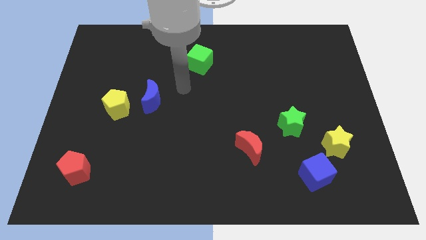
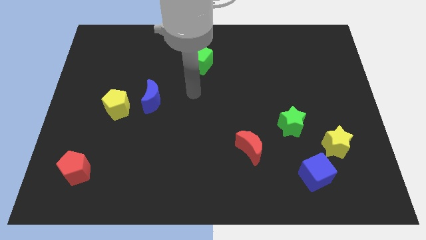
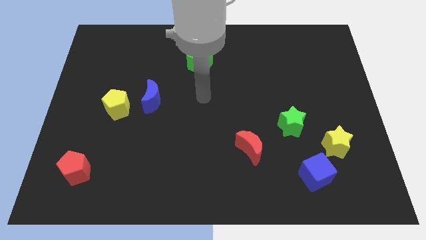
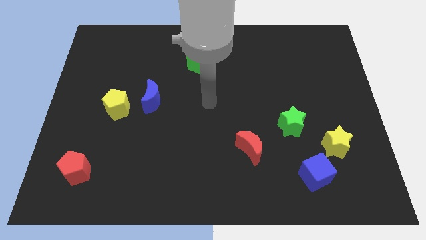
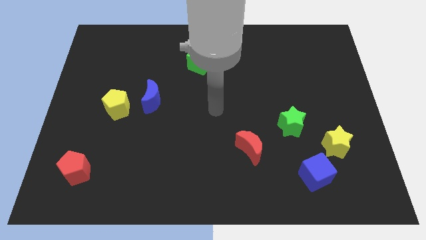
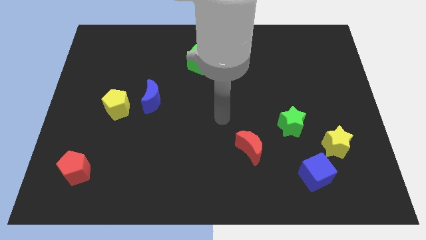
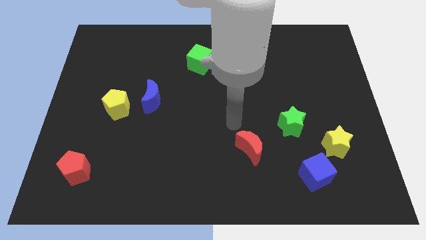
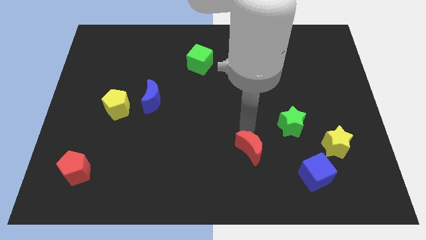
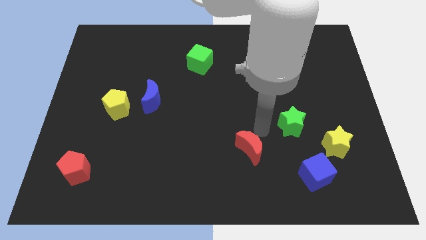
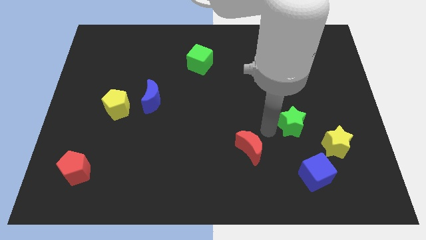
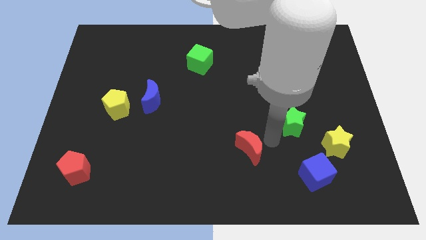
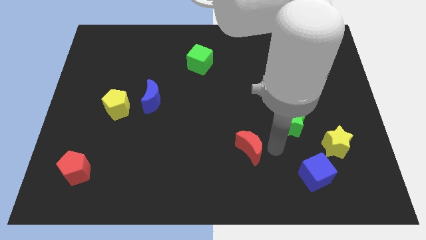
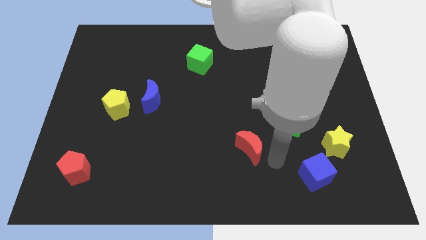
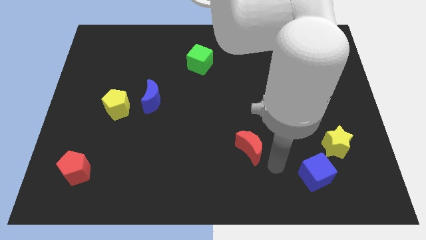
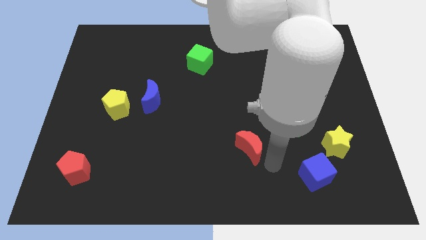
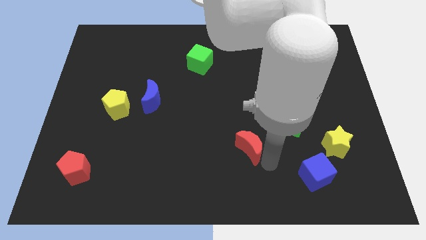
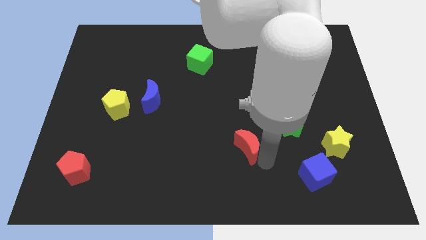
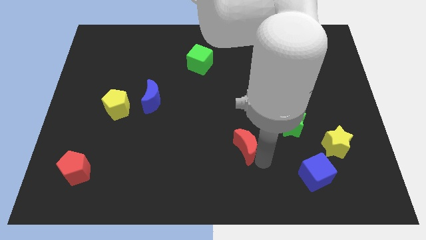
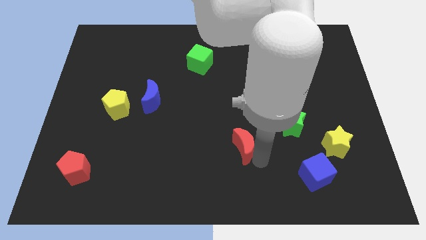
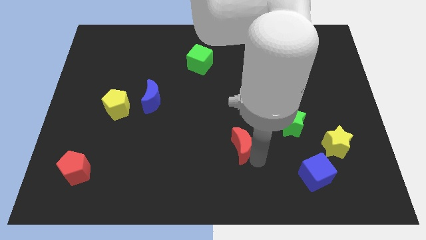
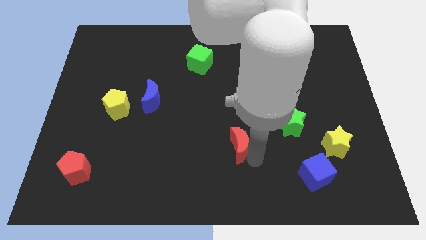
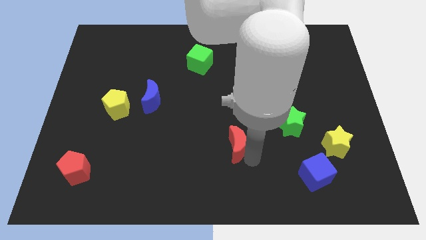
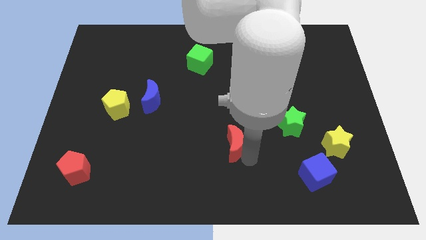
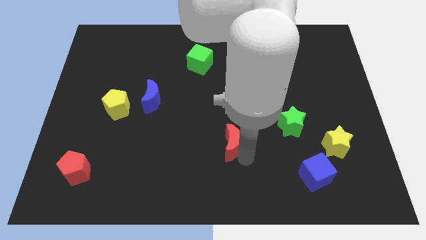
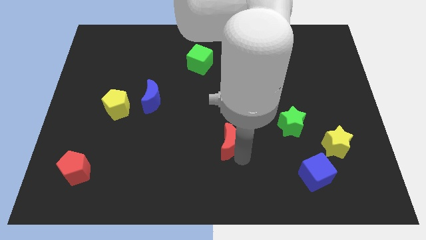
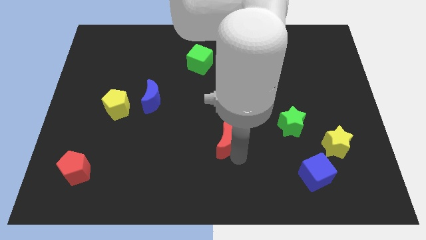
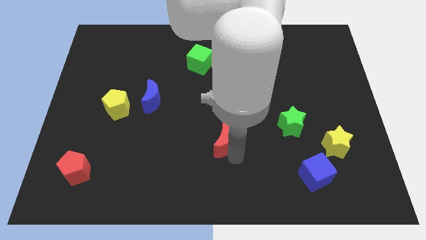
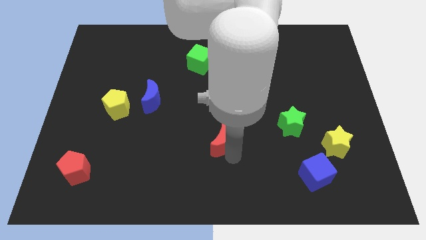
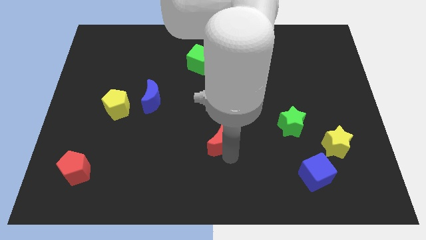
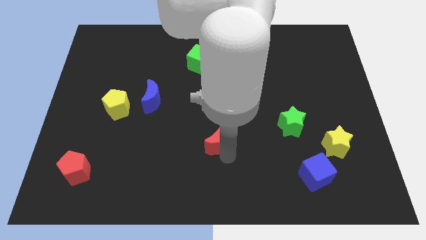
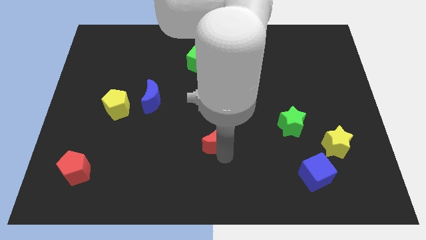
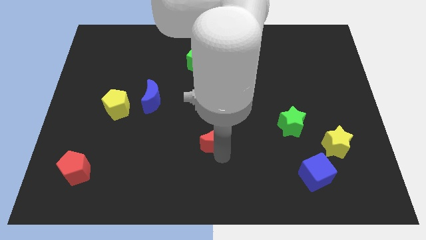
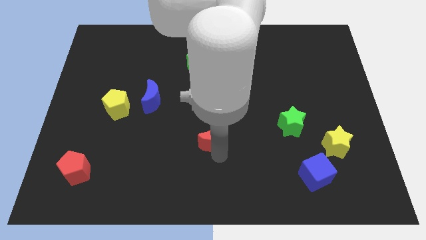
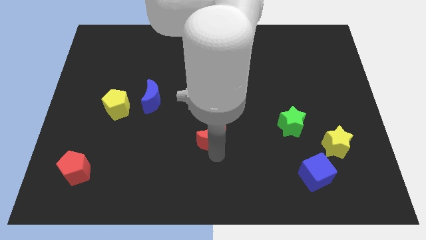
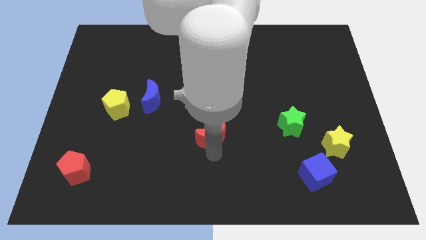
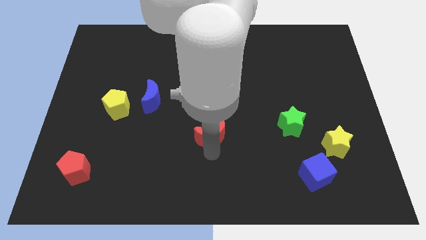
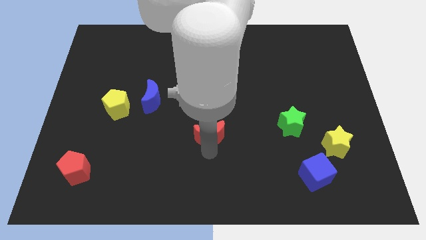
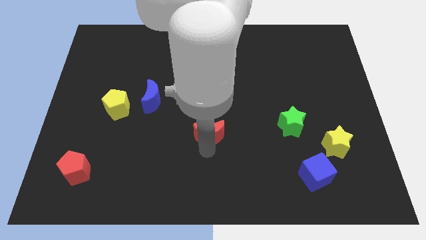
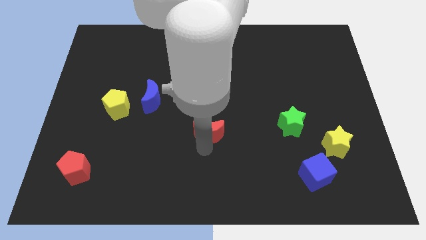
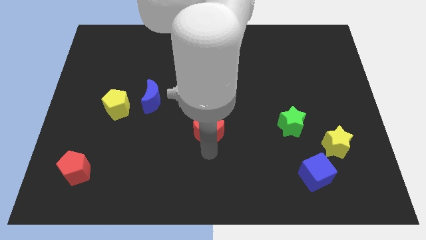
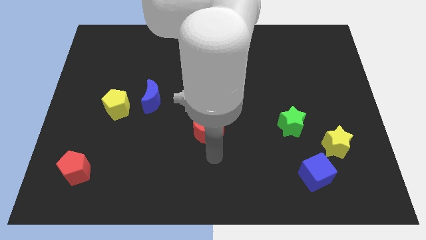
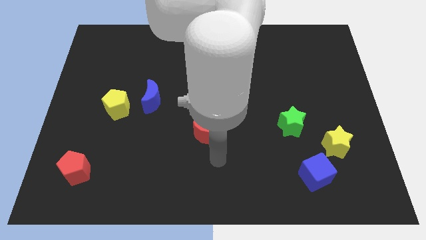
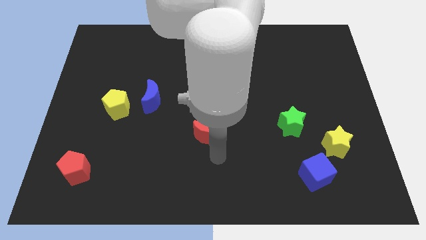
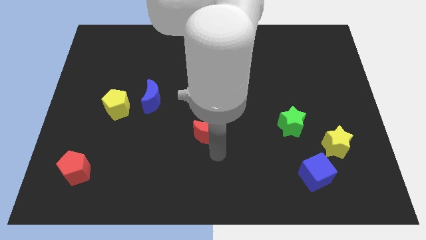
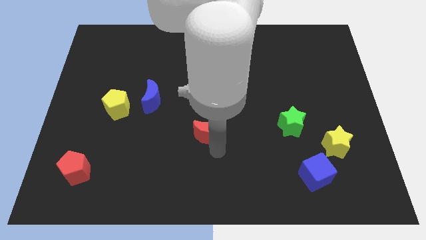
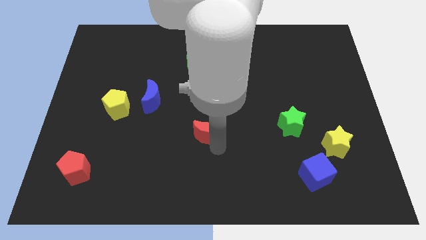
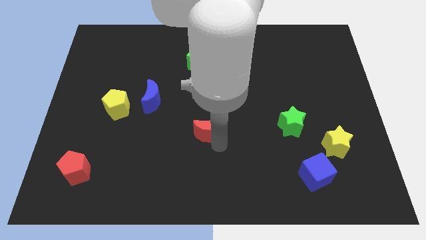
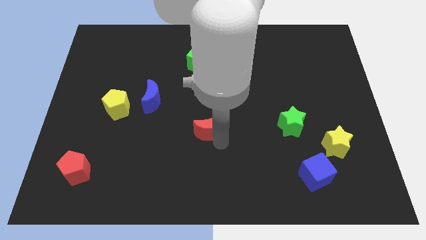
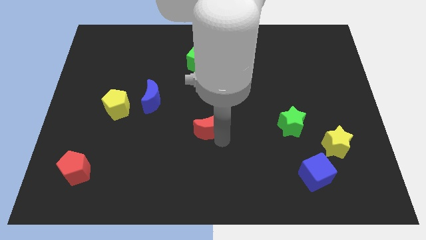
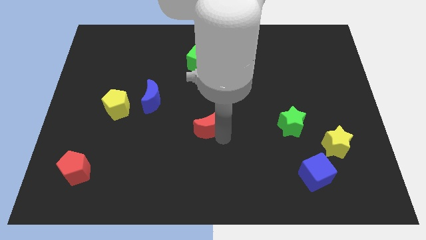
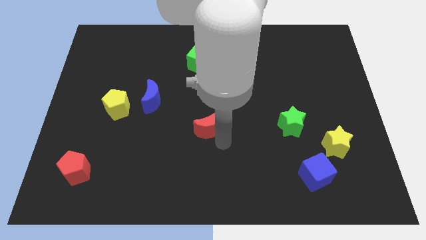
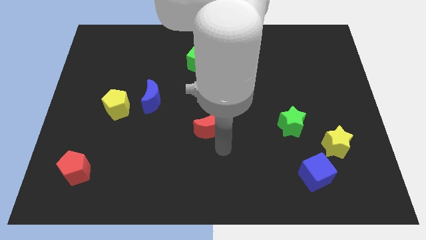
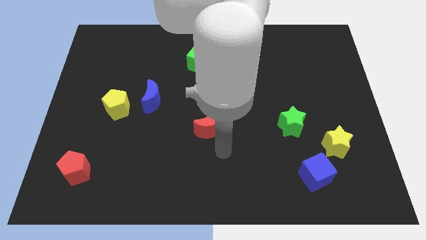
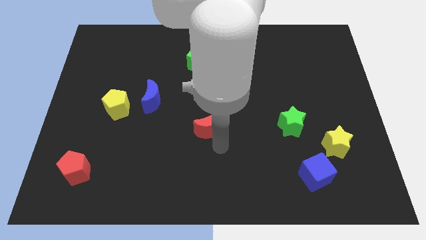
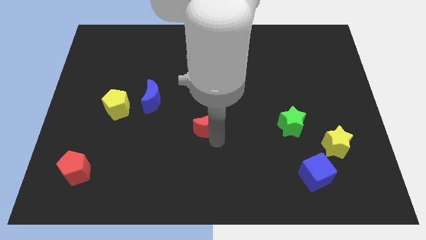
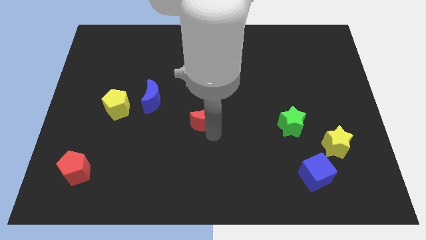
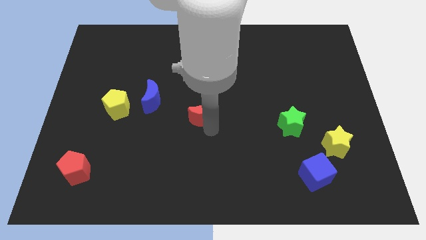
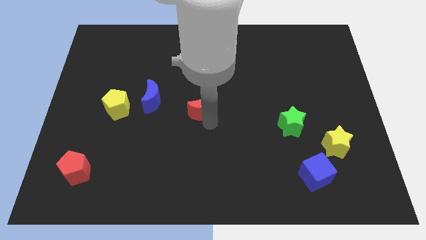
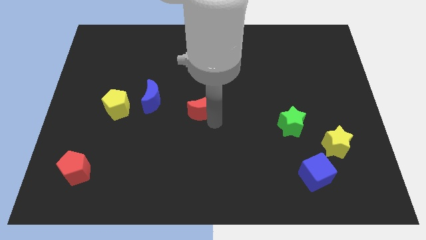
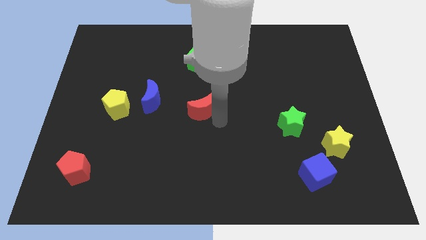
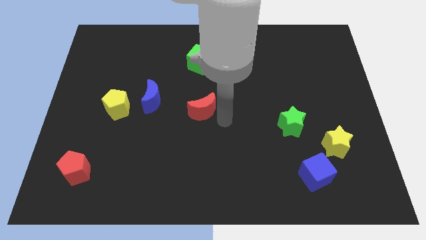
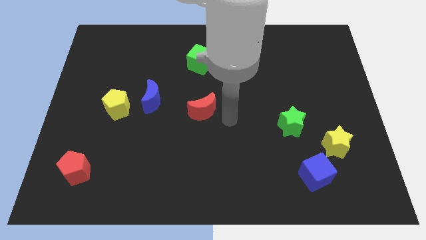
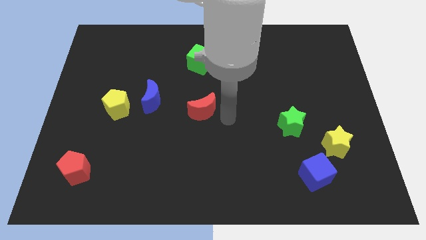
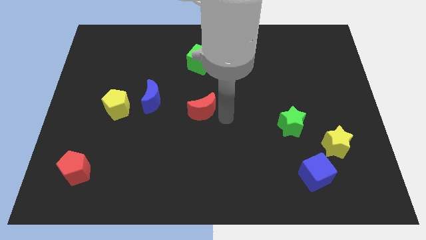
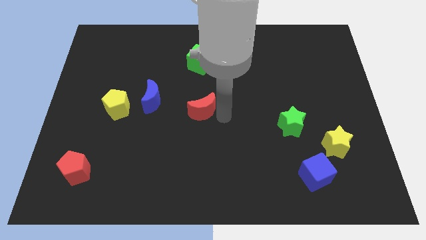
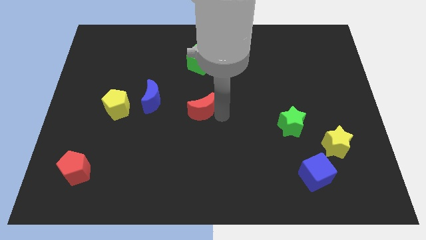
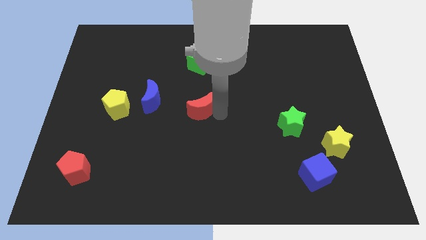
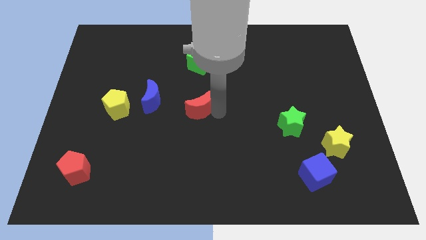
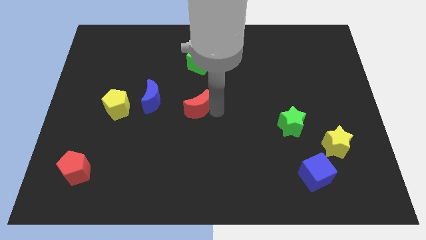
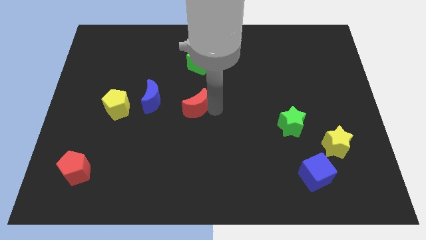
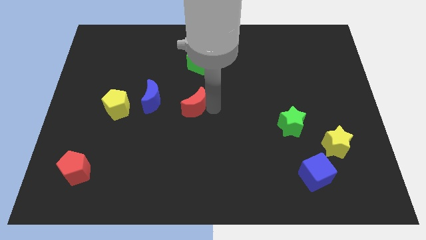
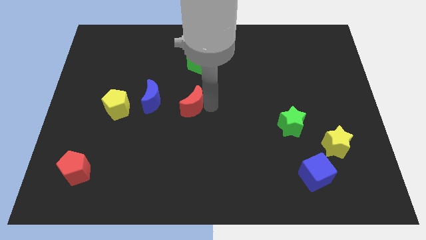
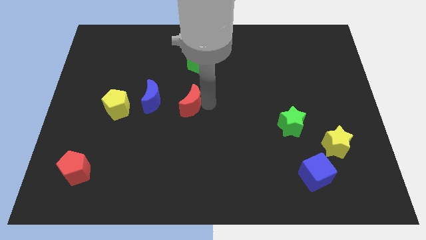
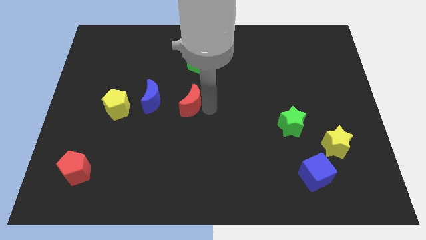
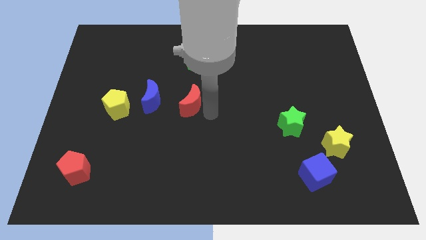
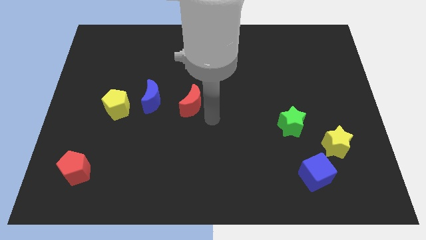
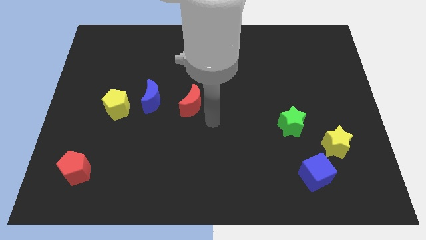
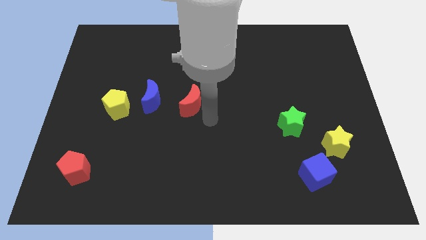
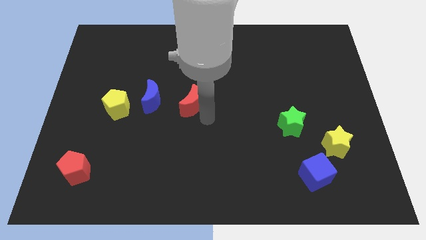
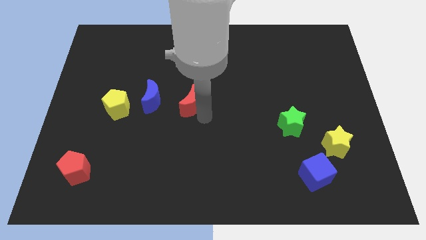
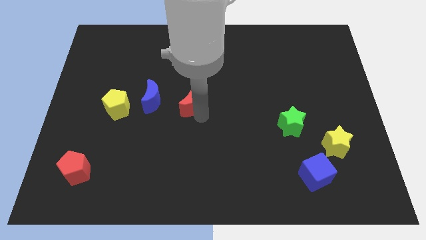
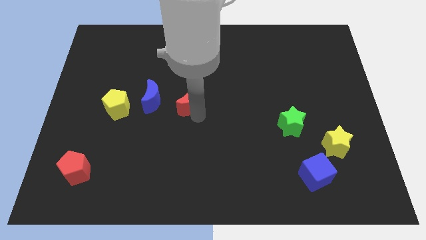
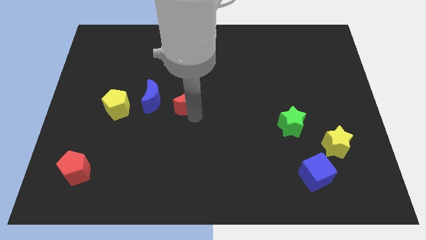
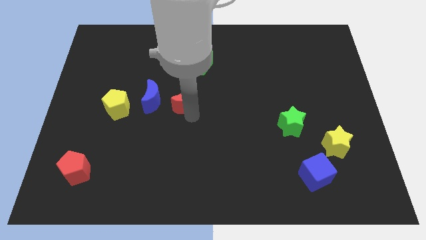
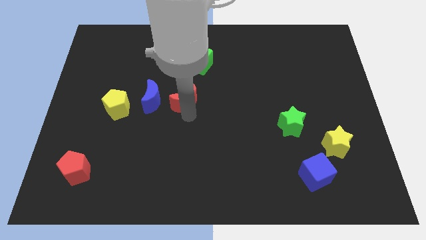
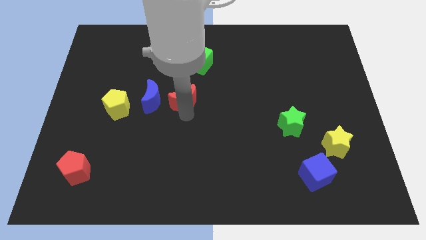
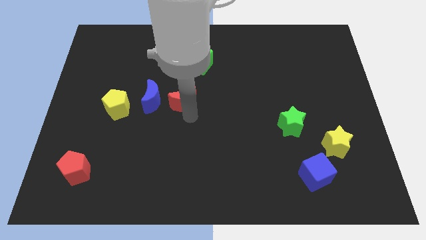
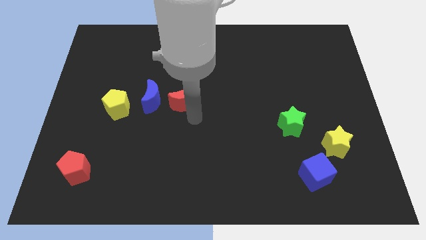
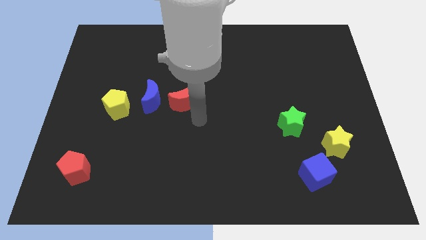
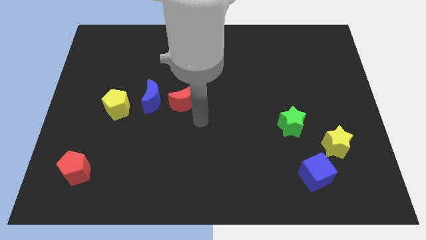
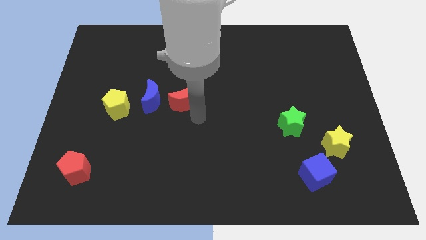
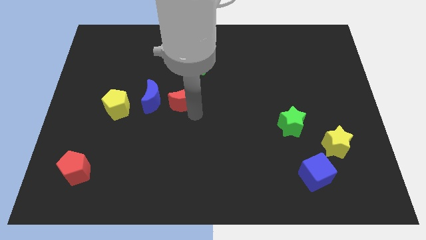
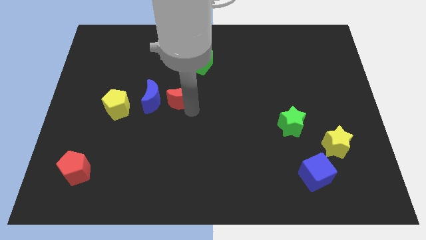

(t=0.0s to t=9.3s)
move the red moon diagonally up and to the left
